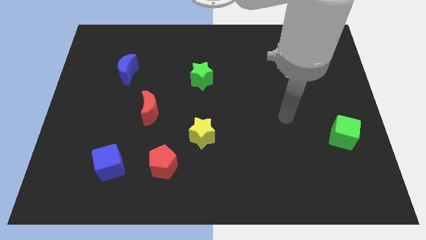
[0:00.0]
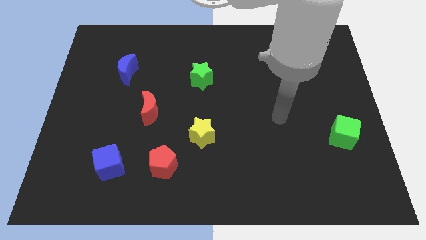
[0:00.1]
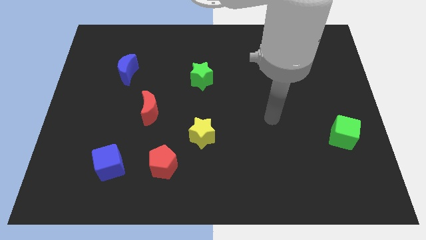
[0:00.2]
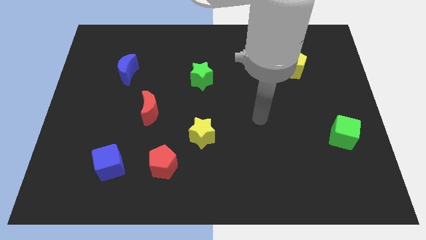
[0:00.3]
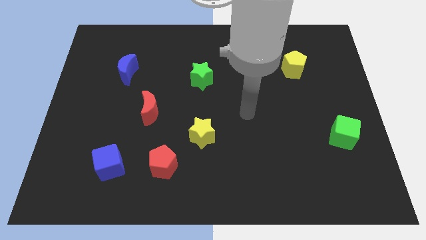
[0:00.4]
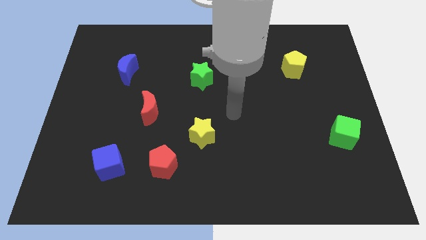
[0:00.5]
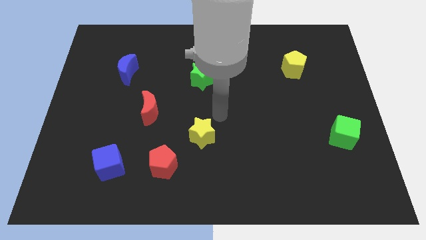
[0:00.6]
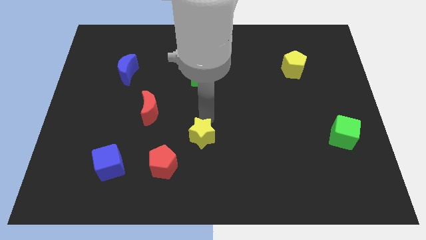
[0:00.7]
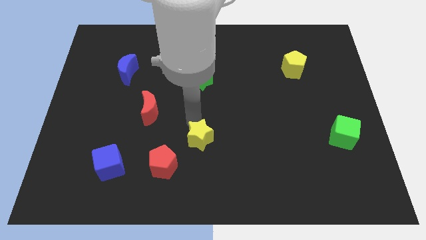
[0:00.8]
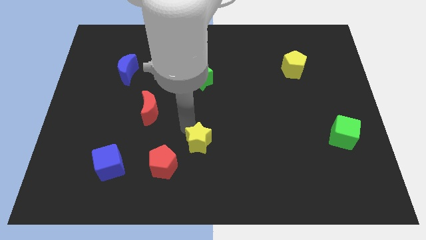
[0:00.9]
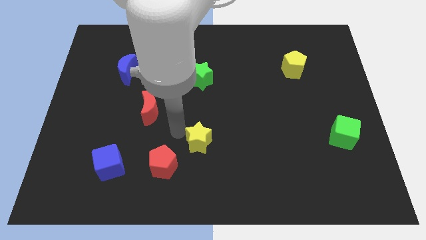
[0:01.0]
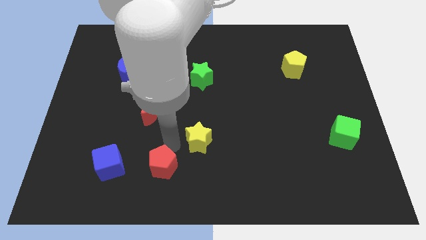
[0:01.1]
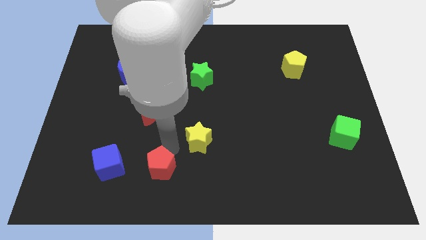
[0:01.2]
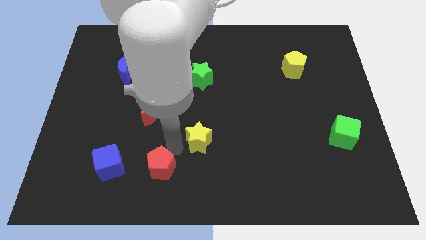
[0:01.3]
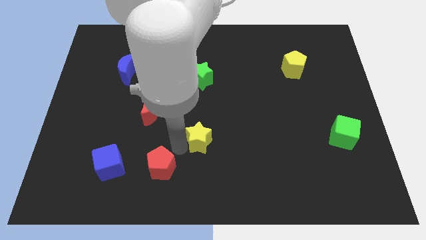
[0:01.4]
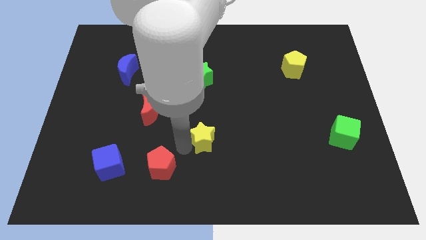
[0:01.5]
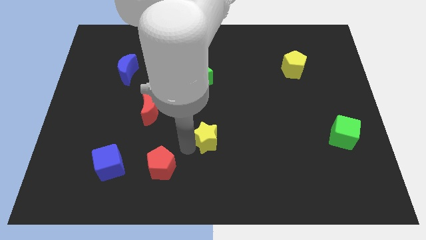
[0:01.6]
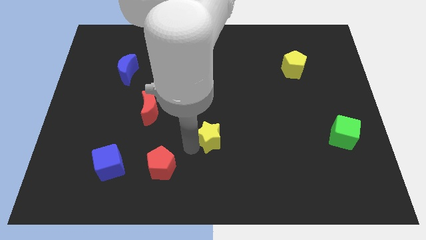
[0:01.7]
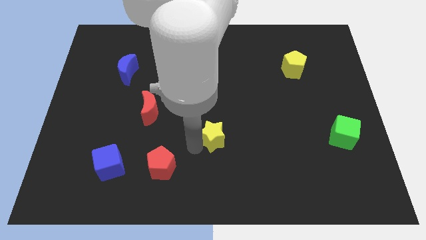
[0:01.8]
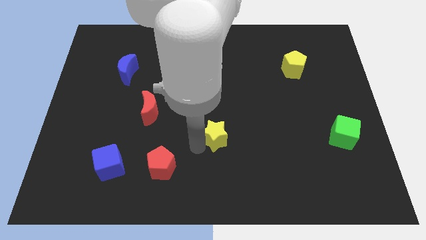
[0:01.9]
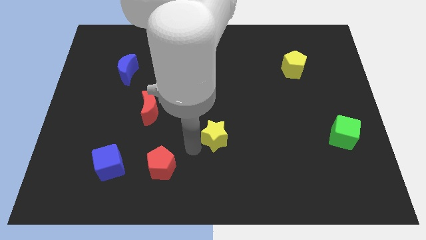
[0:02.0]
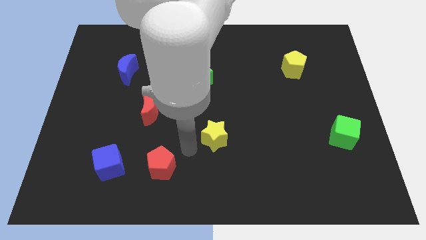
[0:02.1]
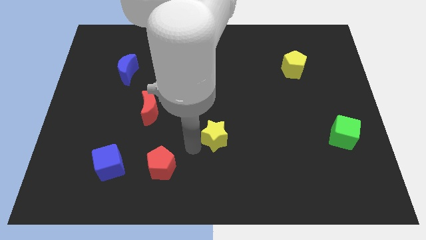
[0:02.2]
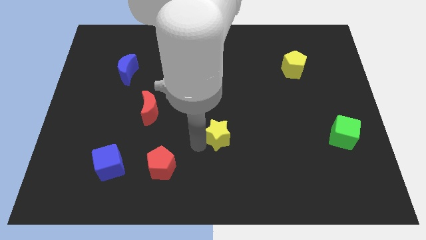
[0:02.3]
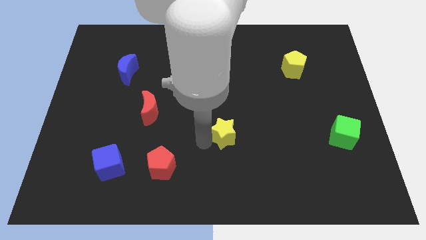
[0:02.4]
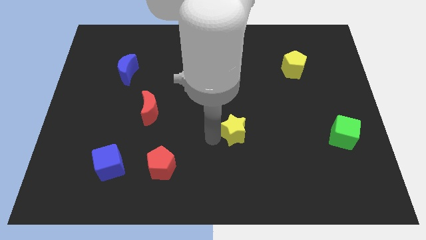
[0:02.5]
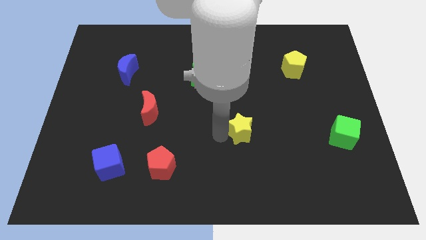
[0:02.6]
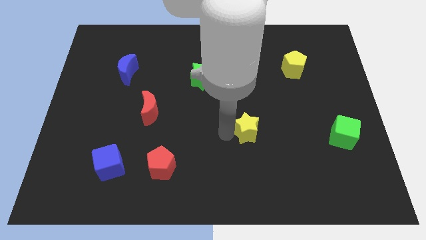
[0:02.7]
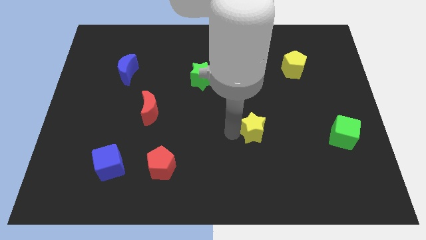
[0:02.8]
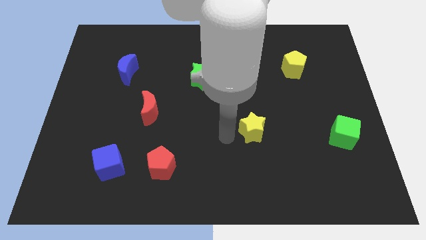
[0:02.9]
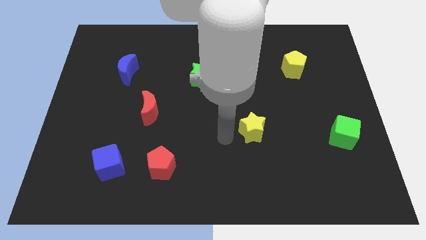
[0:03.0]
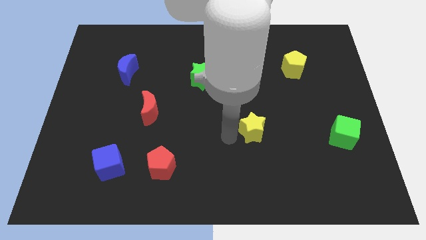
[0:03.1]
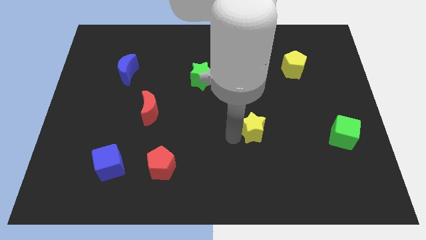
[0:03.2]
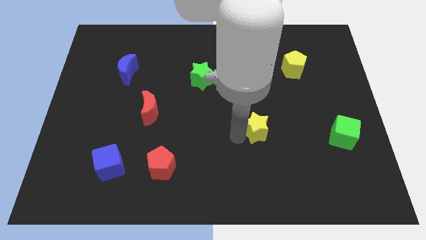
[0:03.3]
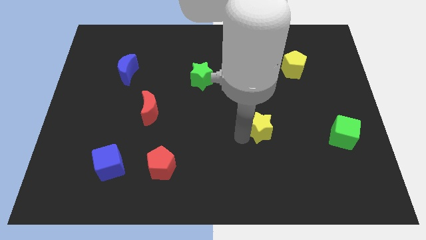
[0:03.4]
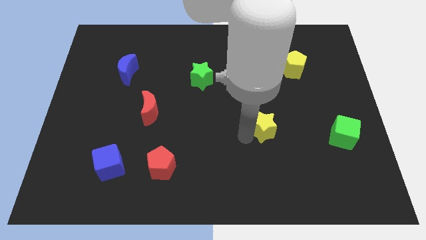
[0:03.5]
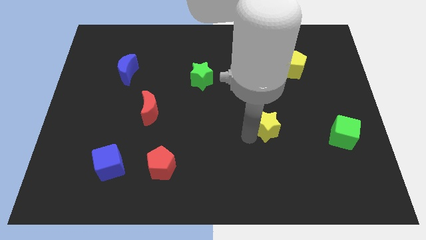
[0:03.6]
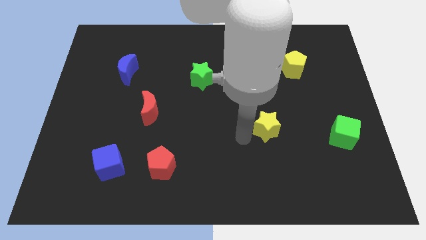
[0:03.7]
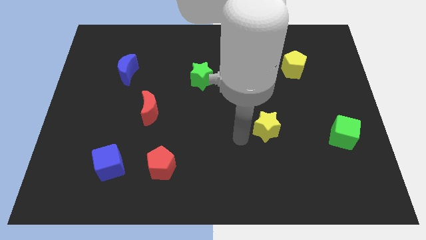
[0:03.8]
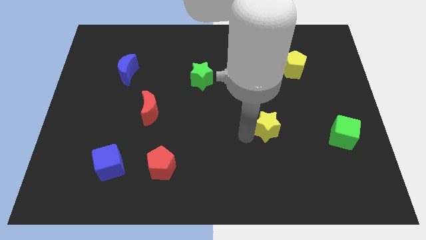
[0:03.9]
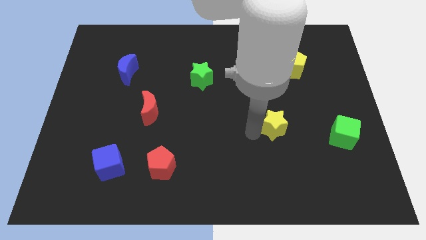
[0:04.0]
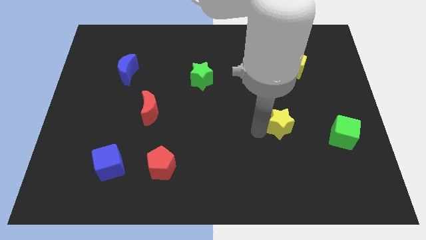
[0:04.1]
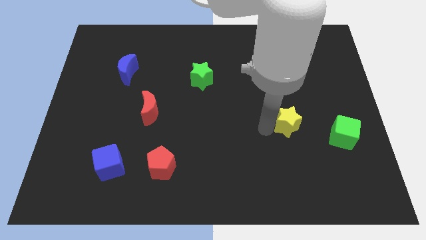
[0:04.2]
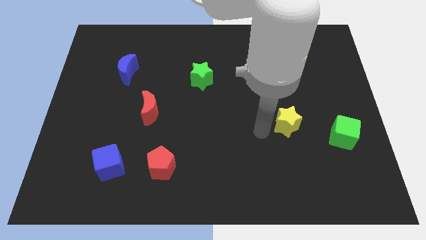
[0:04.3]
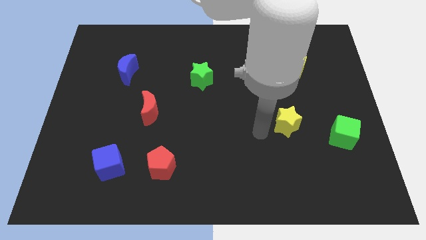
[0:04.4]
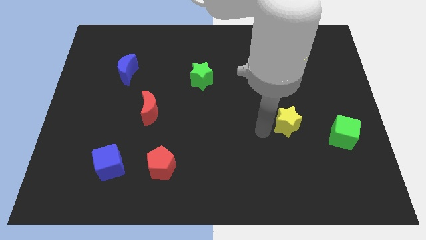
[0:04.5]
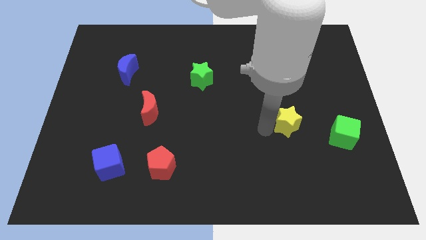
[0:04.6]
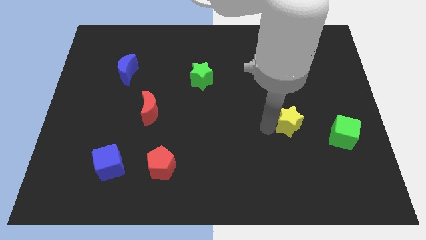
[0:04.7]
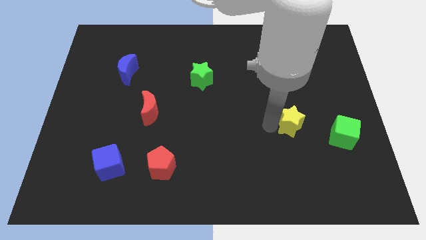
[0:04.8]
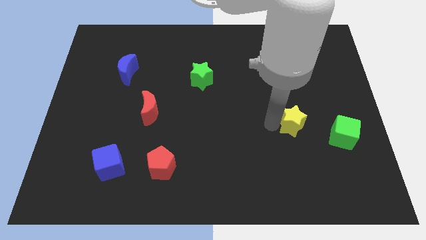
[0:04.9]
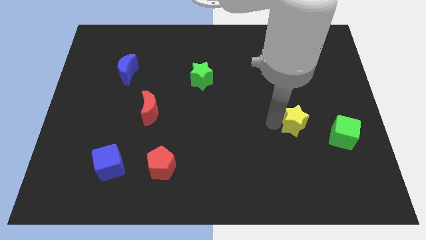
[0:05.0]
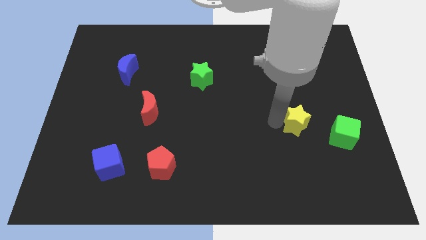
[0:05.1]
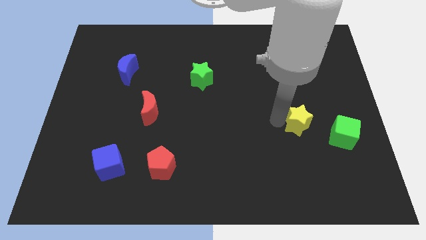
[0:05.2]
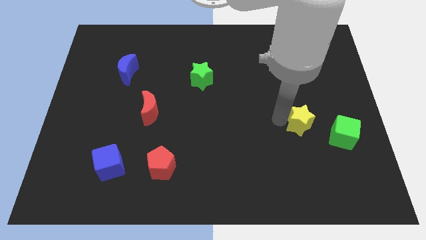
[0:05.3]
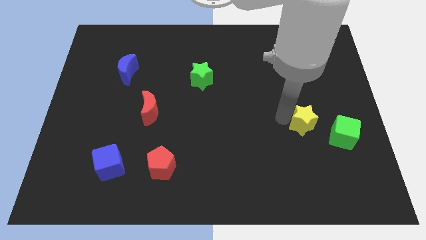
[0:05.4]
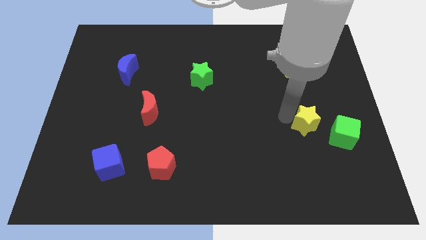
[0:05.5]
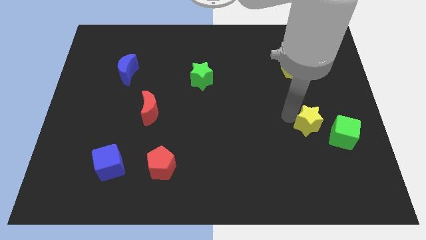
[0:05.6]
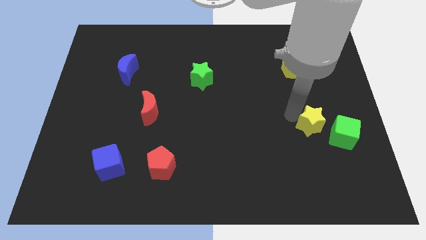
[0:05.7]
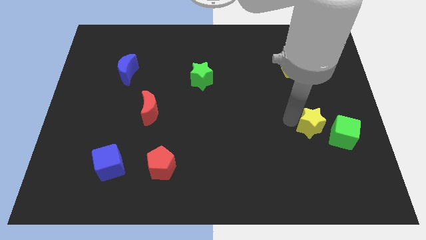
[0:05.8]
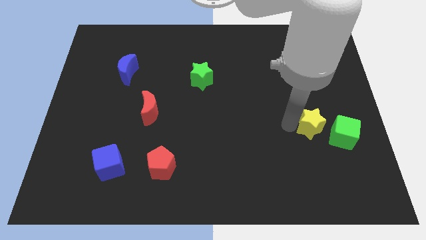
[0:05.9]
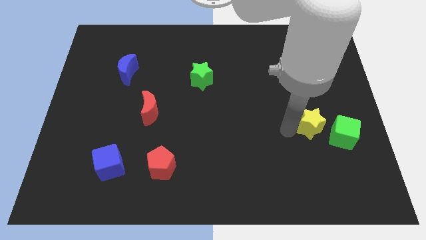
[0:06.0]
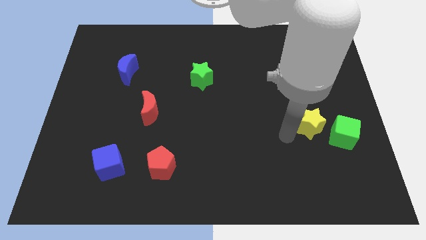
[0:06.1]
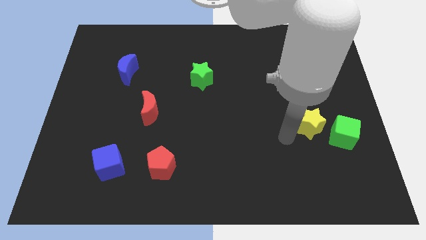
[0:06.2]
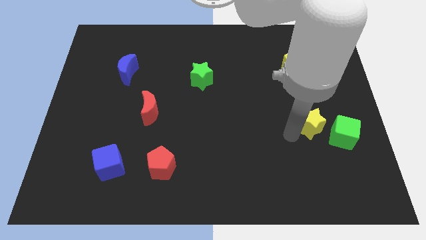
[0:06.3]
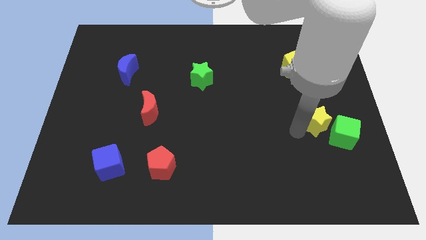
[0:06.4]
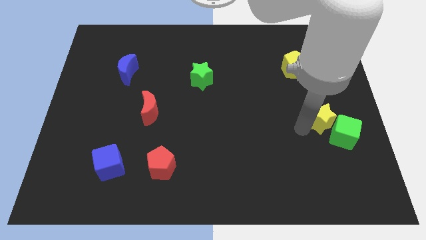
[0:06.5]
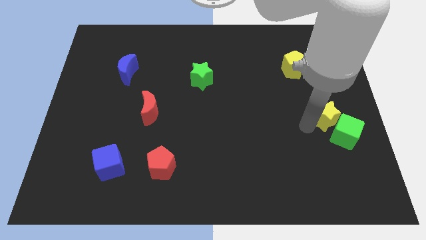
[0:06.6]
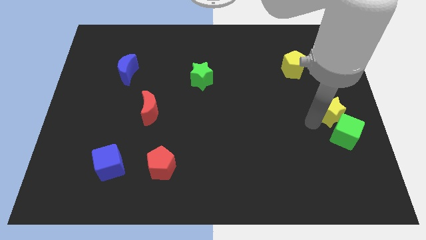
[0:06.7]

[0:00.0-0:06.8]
push the yellow star to the center right
